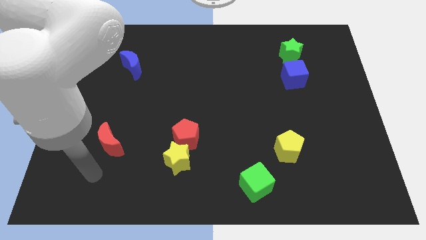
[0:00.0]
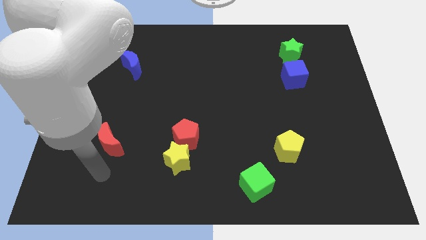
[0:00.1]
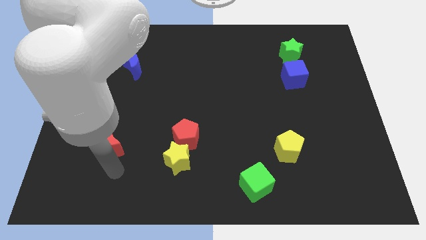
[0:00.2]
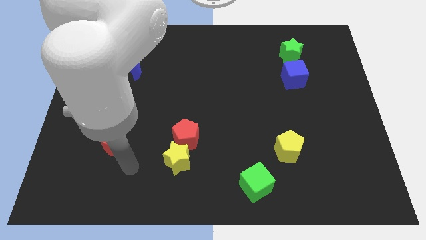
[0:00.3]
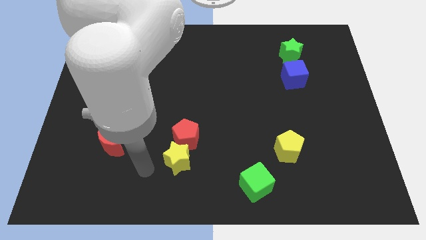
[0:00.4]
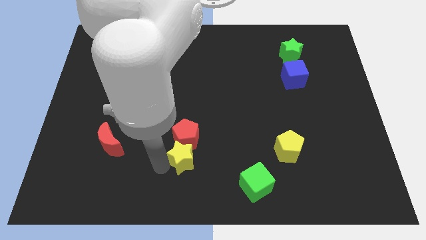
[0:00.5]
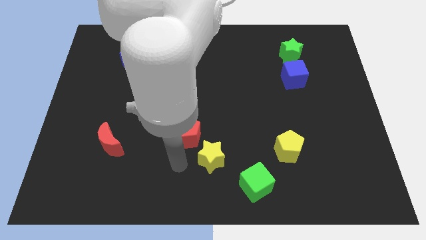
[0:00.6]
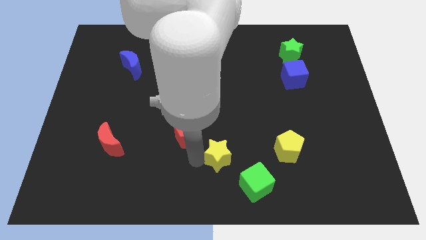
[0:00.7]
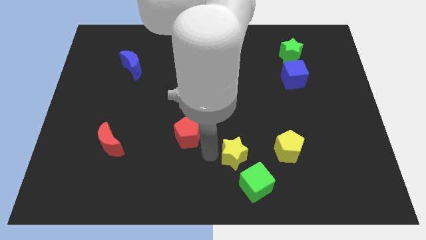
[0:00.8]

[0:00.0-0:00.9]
move the red pentagon away from the yellow star

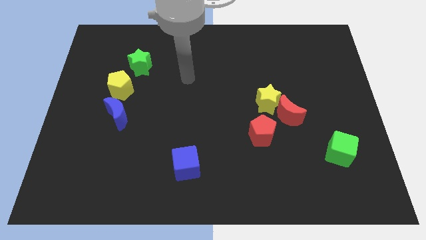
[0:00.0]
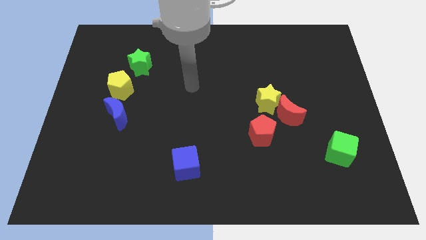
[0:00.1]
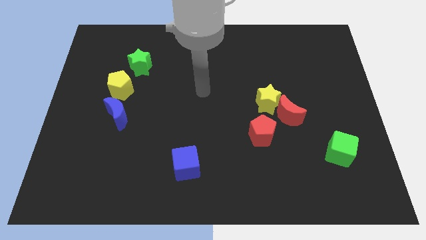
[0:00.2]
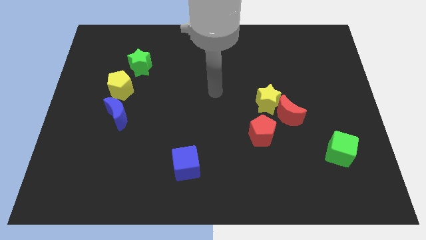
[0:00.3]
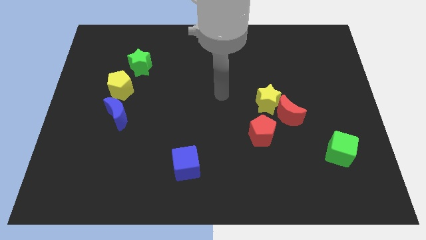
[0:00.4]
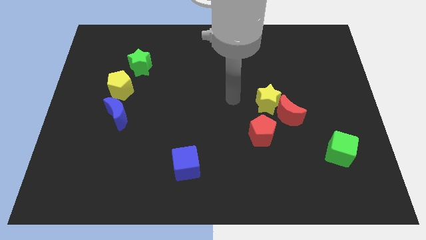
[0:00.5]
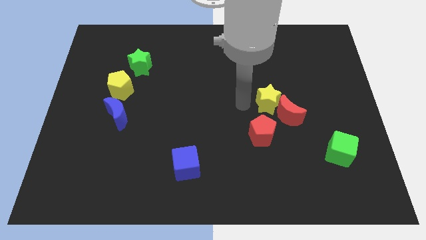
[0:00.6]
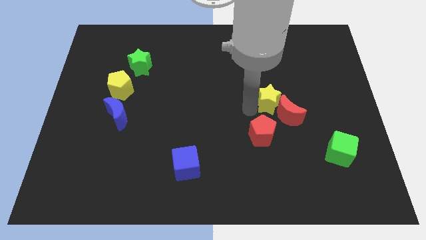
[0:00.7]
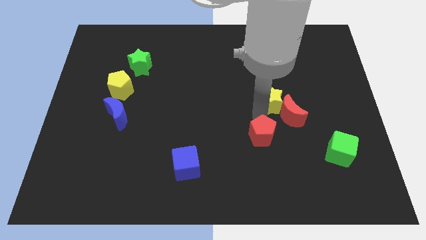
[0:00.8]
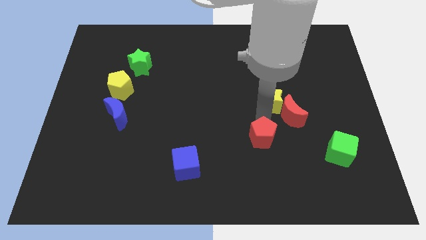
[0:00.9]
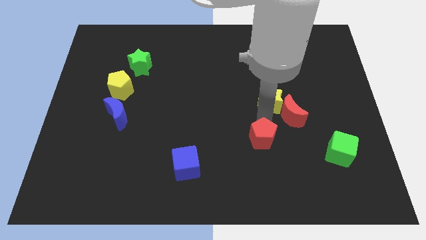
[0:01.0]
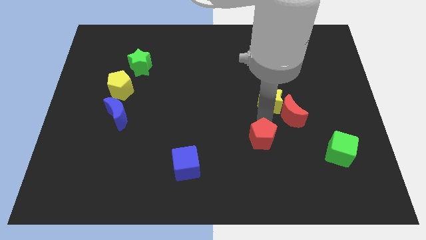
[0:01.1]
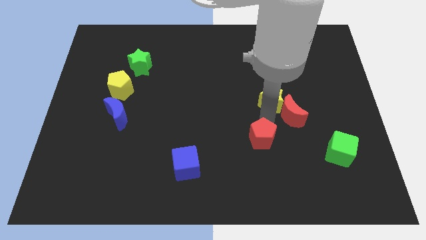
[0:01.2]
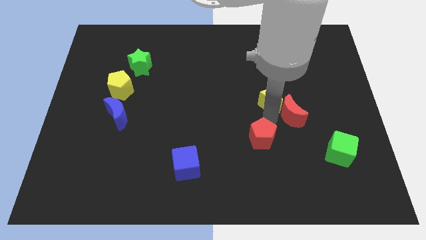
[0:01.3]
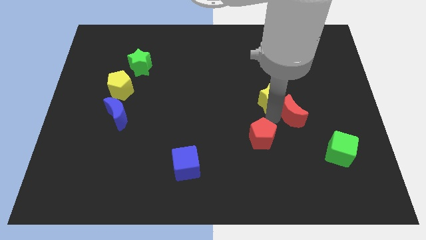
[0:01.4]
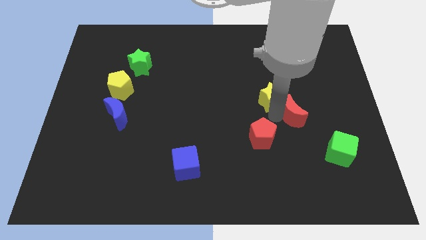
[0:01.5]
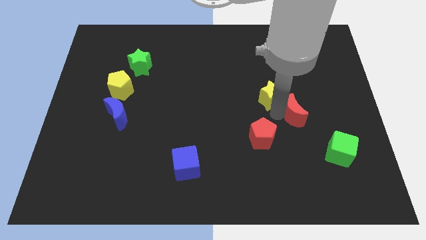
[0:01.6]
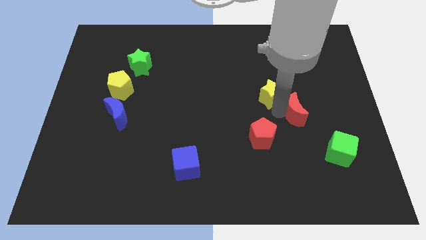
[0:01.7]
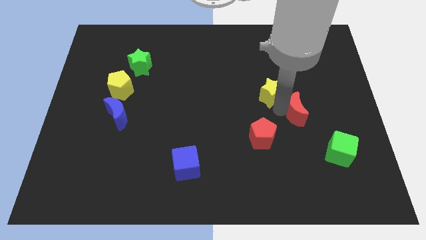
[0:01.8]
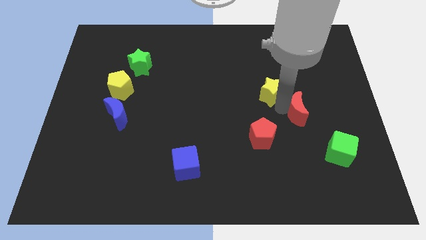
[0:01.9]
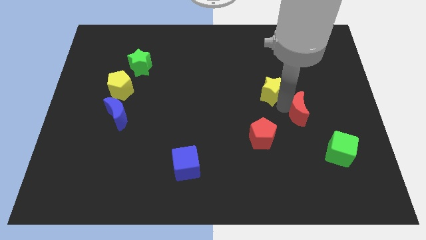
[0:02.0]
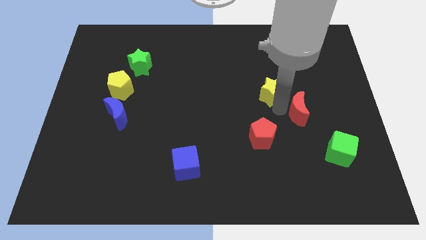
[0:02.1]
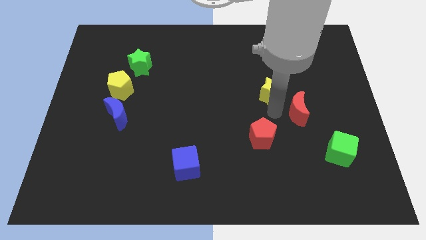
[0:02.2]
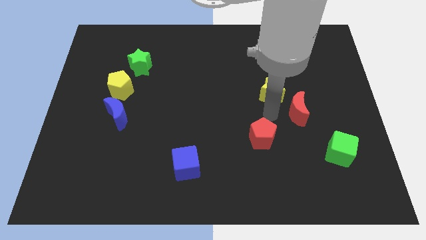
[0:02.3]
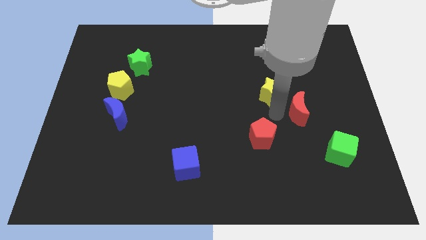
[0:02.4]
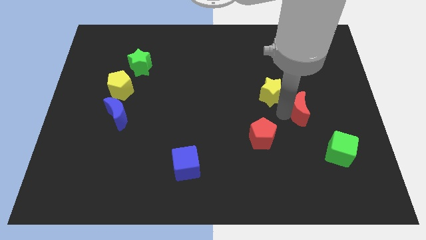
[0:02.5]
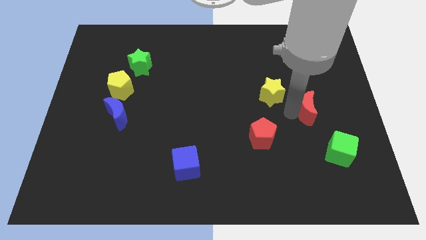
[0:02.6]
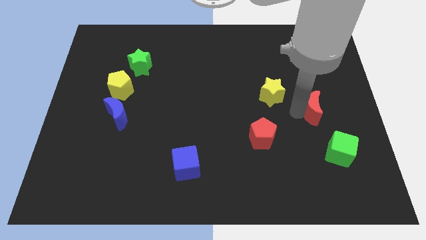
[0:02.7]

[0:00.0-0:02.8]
pull the red moon apart from the yellow star and red pentagon

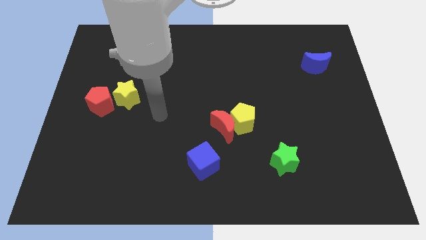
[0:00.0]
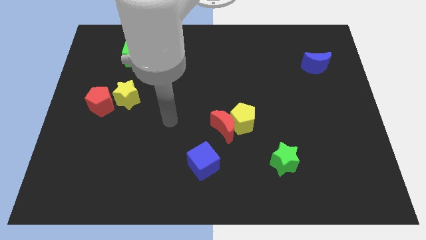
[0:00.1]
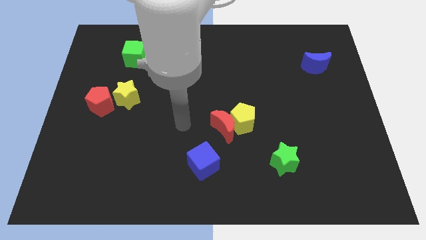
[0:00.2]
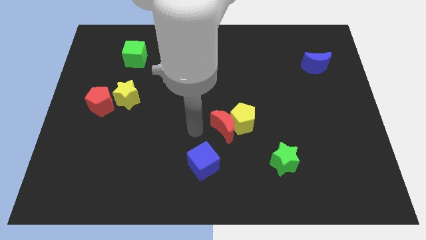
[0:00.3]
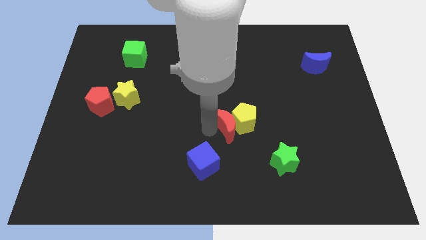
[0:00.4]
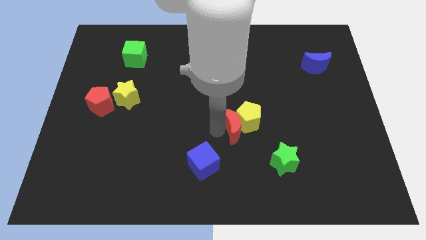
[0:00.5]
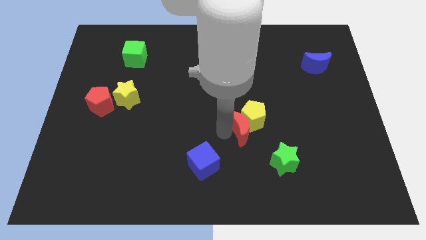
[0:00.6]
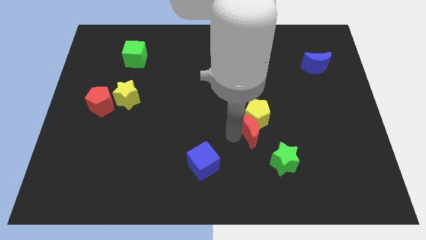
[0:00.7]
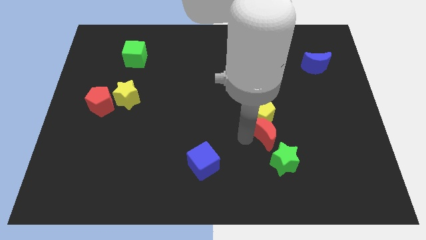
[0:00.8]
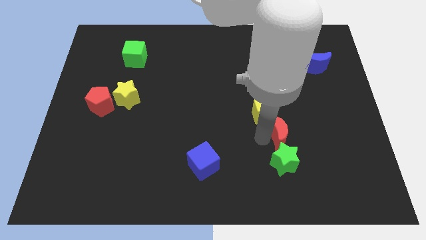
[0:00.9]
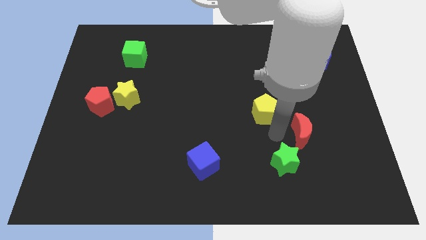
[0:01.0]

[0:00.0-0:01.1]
separate the yellow pentagon from the red moon

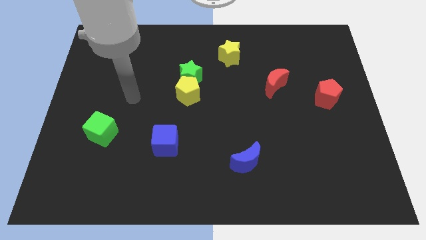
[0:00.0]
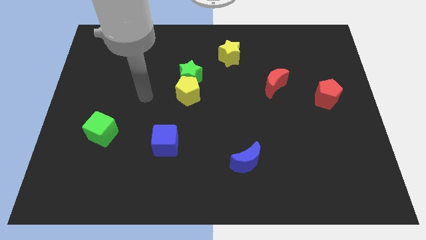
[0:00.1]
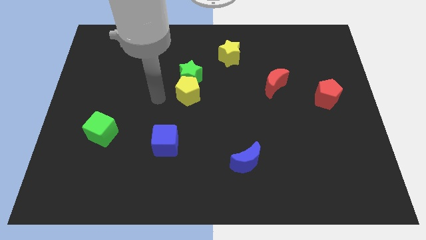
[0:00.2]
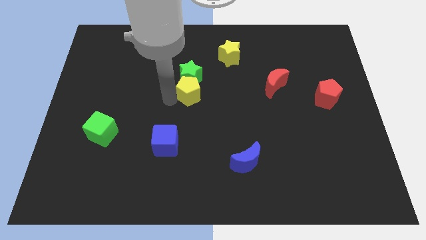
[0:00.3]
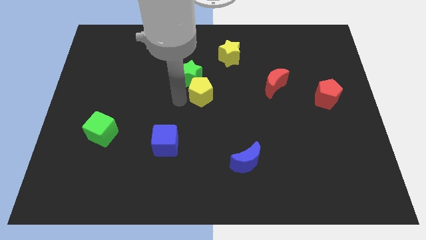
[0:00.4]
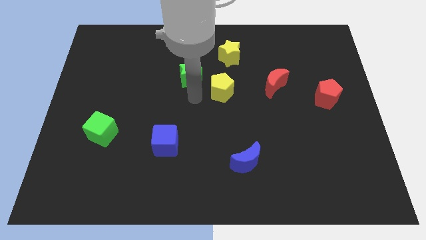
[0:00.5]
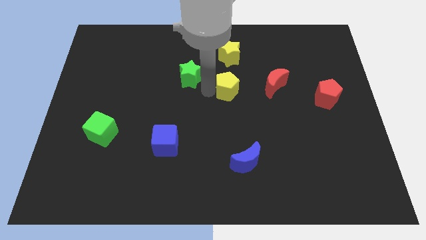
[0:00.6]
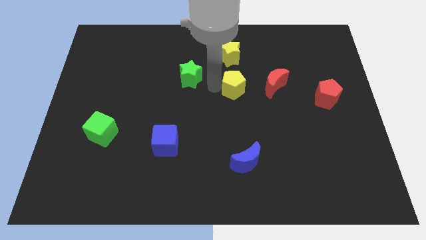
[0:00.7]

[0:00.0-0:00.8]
pull the green star apart from the yellow pentagon

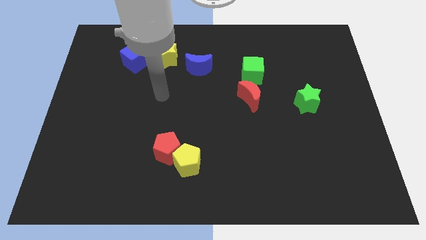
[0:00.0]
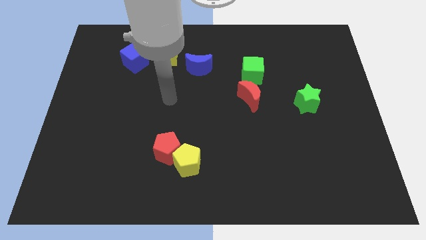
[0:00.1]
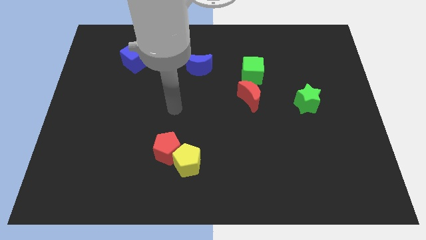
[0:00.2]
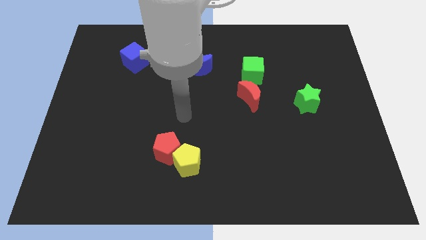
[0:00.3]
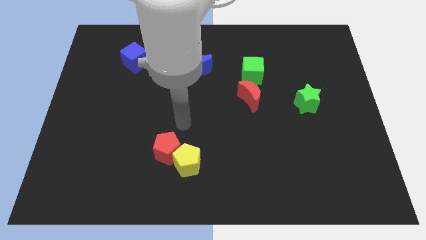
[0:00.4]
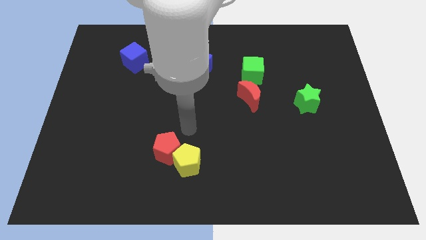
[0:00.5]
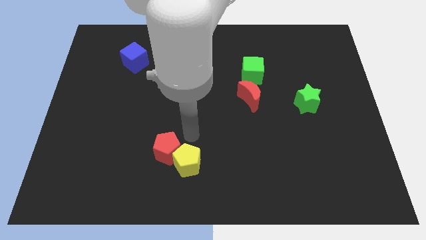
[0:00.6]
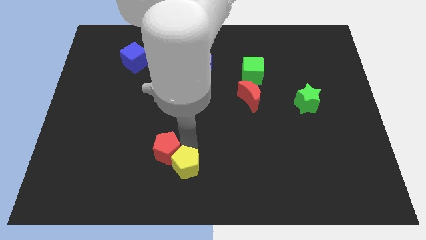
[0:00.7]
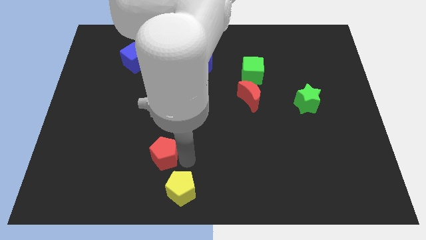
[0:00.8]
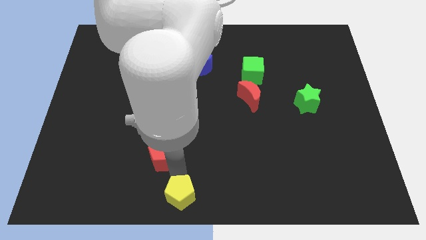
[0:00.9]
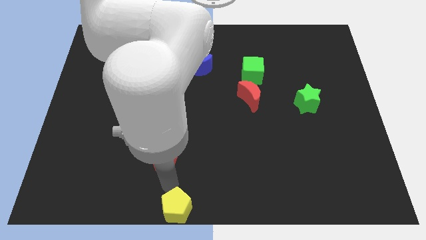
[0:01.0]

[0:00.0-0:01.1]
pull the red pentagon apart from the yellow pentagon

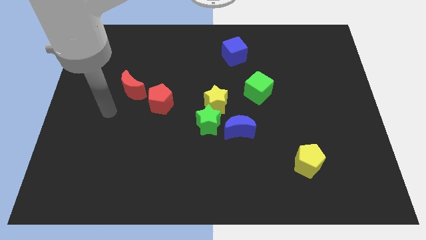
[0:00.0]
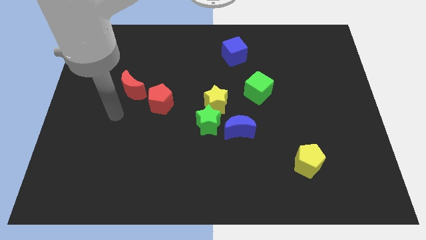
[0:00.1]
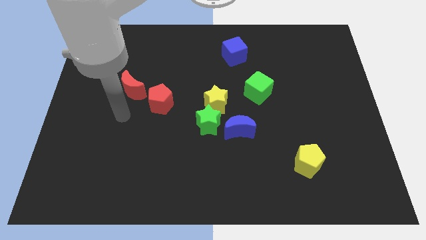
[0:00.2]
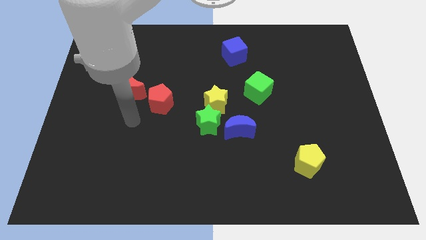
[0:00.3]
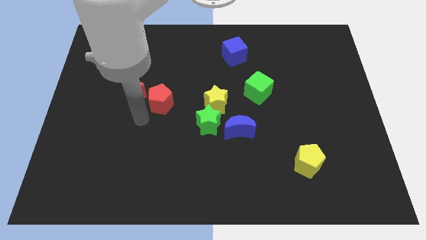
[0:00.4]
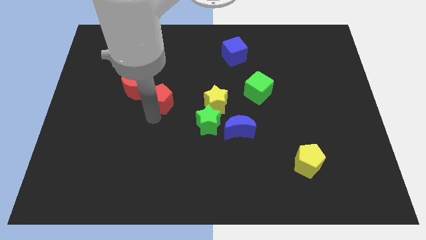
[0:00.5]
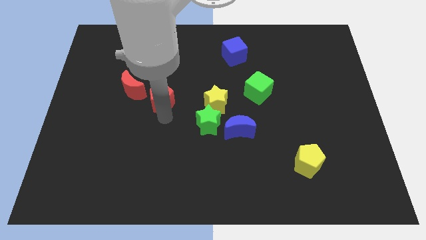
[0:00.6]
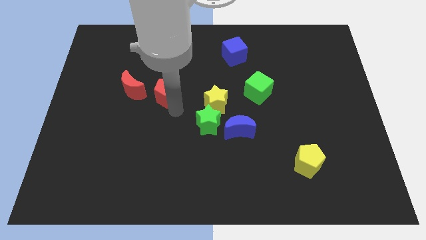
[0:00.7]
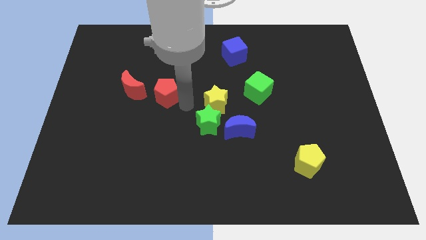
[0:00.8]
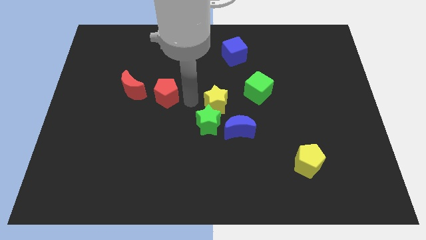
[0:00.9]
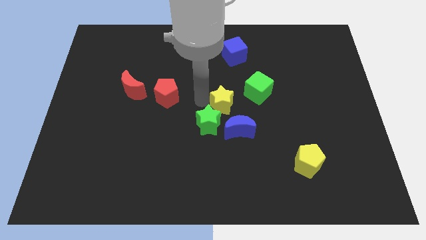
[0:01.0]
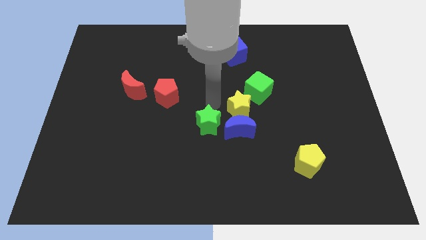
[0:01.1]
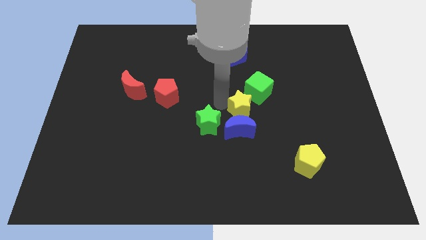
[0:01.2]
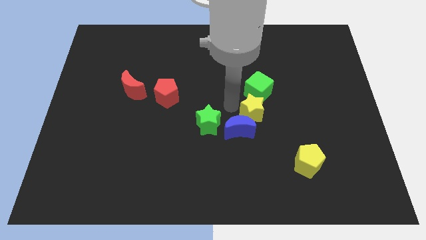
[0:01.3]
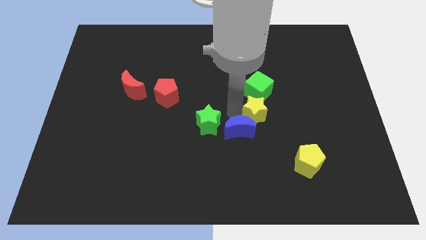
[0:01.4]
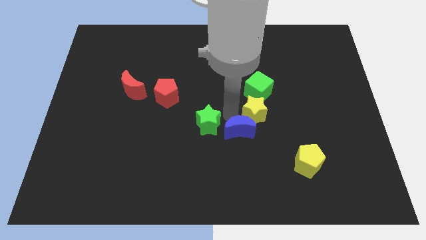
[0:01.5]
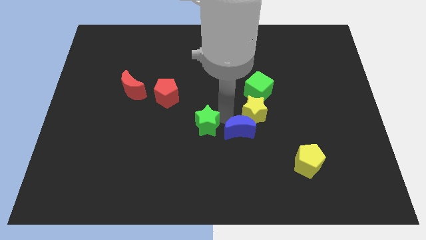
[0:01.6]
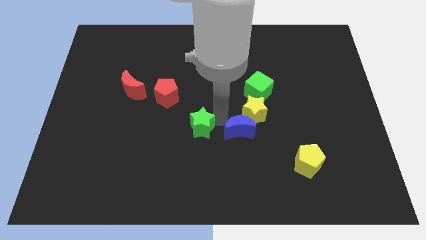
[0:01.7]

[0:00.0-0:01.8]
separate the green star from the yellow star and blue moon

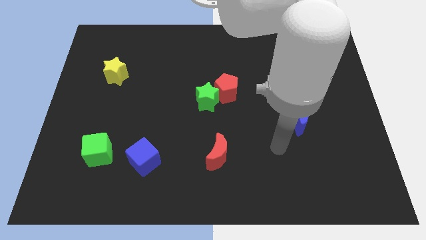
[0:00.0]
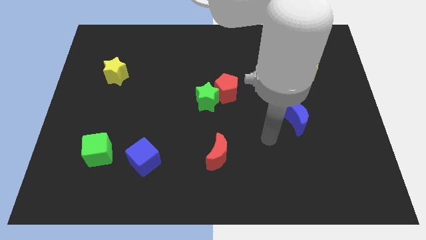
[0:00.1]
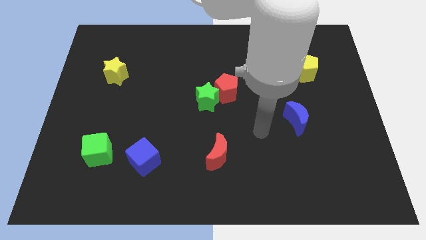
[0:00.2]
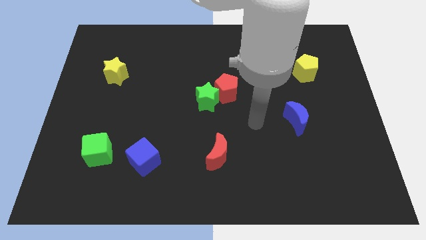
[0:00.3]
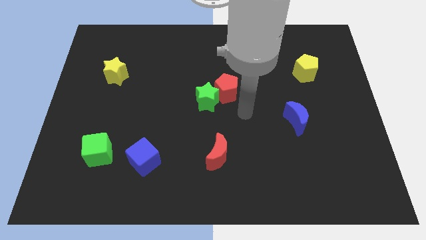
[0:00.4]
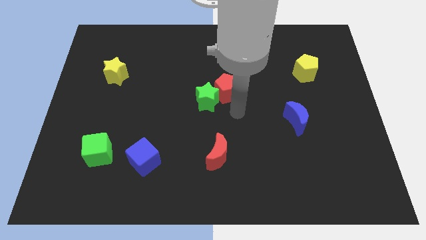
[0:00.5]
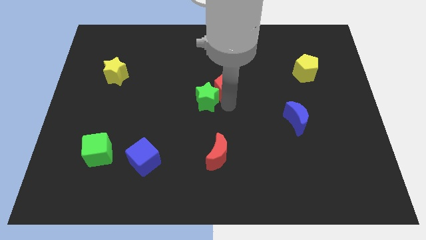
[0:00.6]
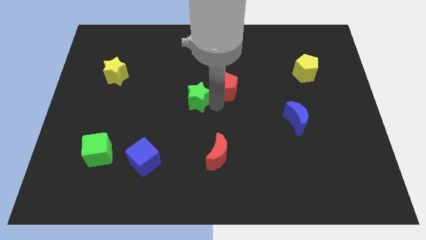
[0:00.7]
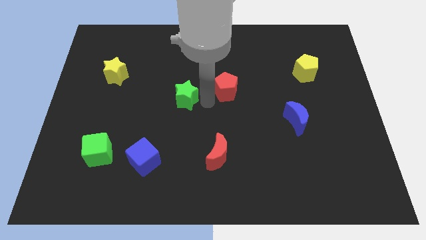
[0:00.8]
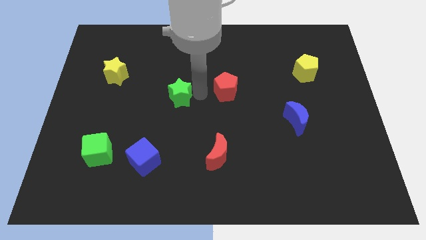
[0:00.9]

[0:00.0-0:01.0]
move the red pentagon away from the green star
